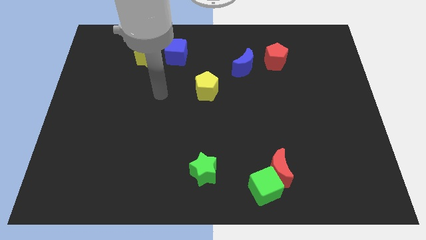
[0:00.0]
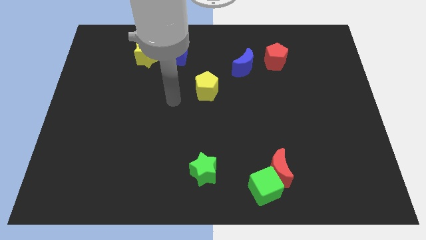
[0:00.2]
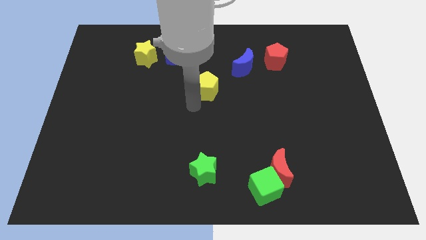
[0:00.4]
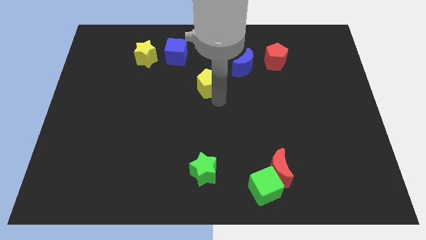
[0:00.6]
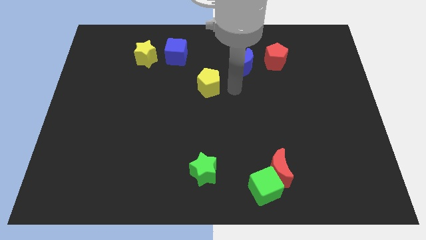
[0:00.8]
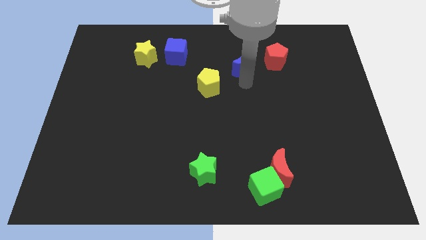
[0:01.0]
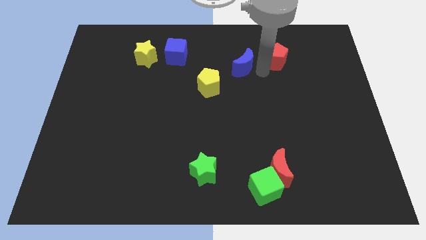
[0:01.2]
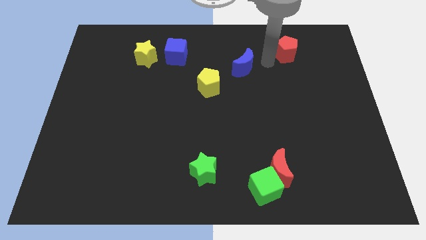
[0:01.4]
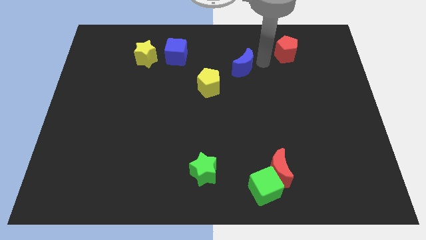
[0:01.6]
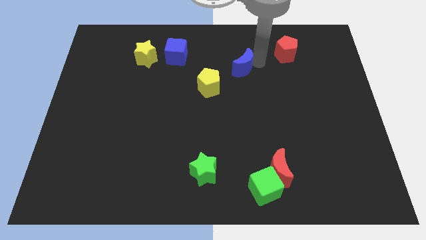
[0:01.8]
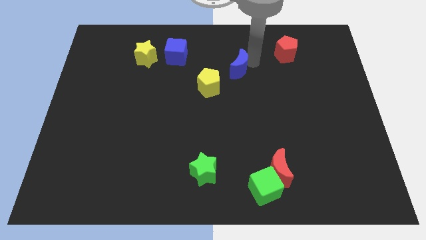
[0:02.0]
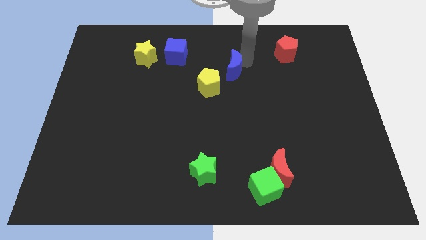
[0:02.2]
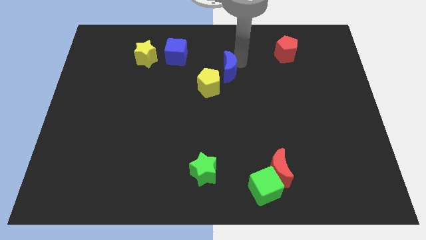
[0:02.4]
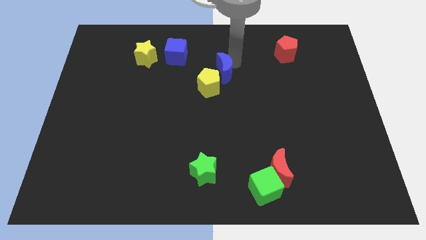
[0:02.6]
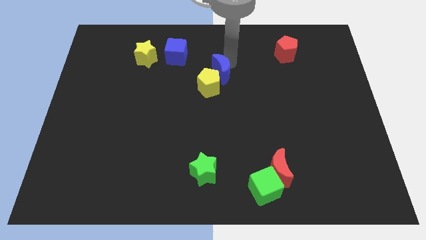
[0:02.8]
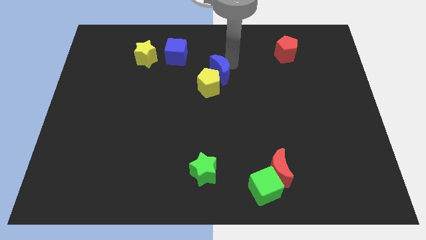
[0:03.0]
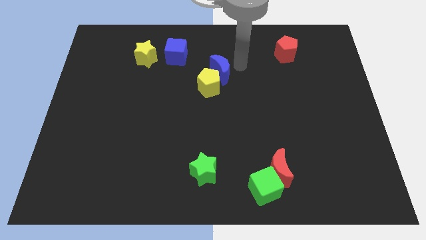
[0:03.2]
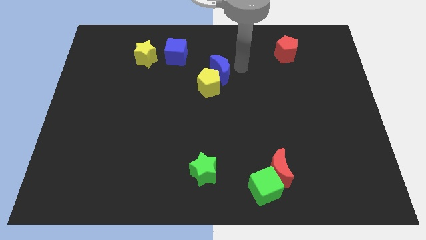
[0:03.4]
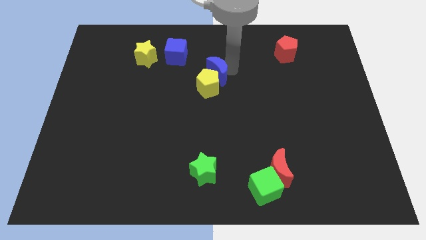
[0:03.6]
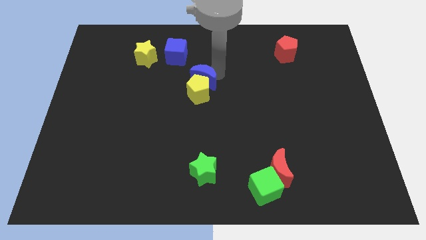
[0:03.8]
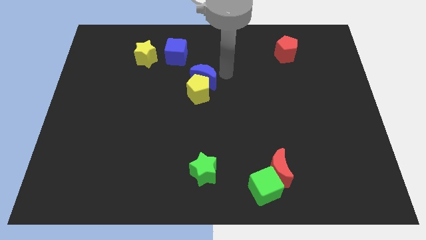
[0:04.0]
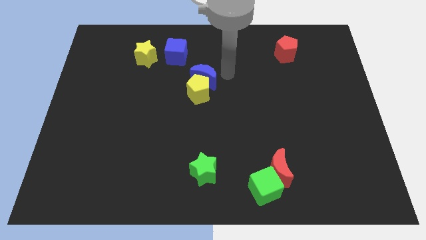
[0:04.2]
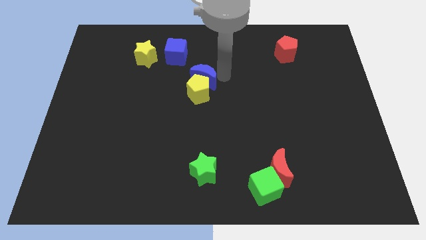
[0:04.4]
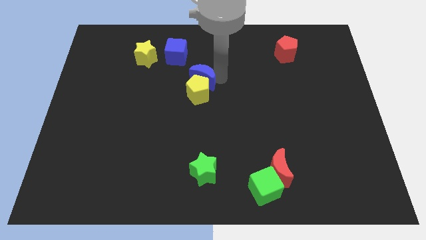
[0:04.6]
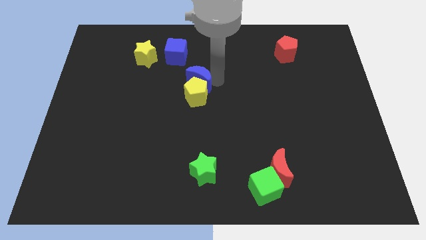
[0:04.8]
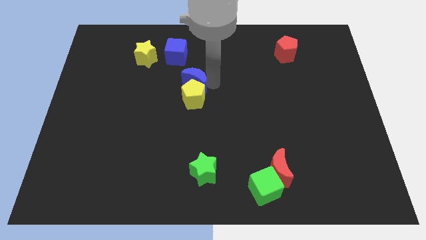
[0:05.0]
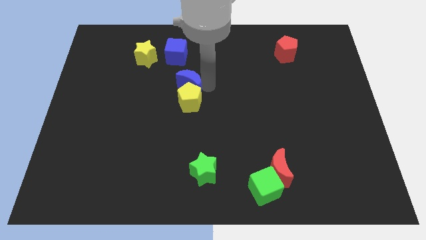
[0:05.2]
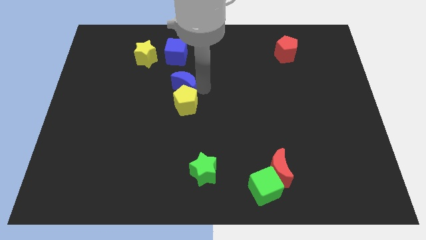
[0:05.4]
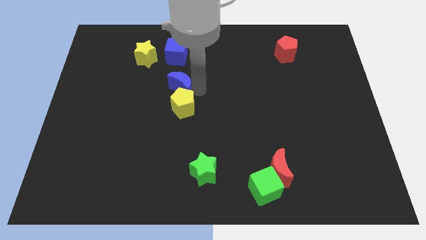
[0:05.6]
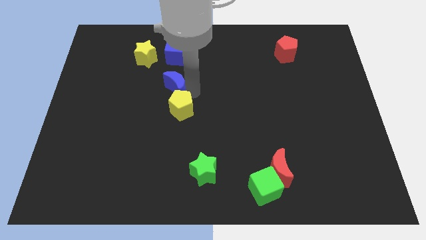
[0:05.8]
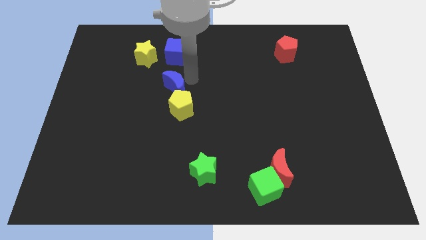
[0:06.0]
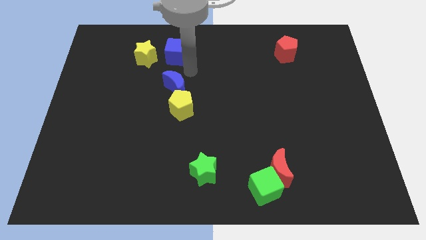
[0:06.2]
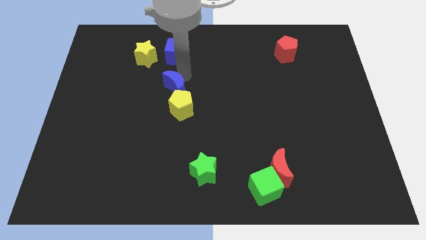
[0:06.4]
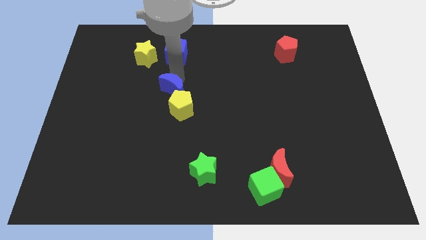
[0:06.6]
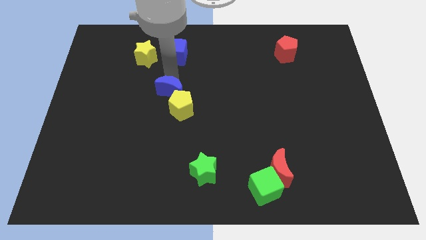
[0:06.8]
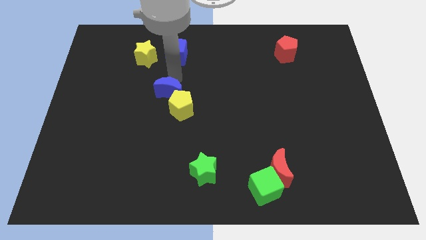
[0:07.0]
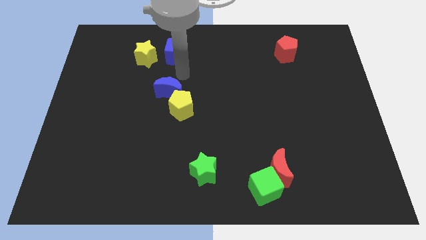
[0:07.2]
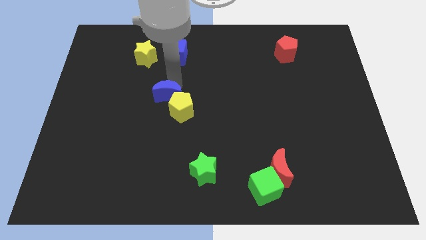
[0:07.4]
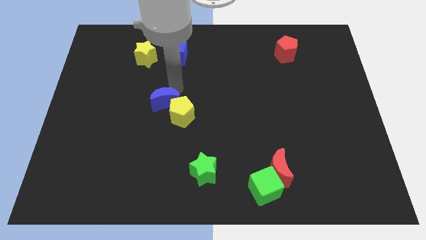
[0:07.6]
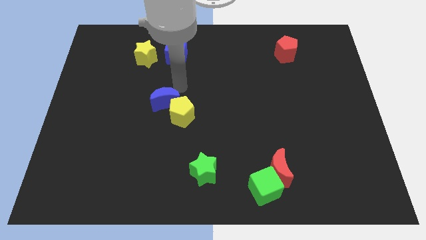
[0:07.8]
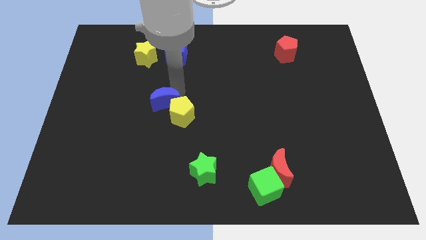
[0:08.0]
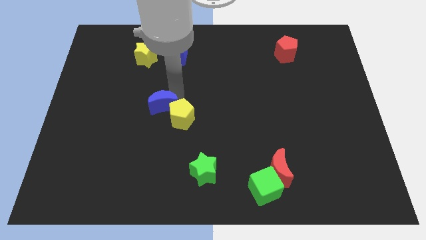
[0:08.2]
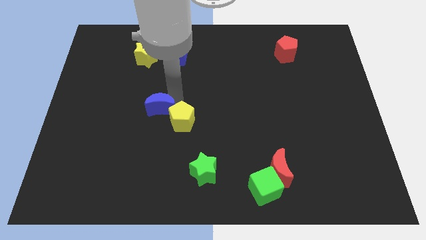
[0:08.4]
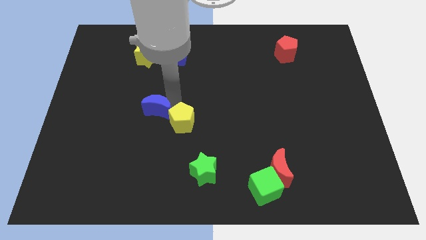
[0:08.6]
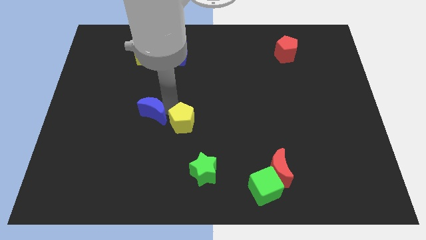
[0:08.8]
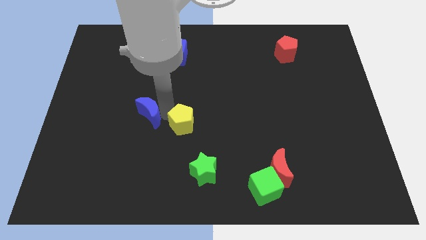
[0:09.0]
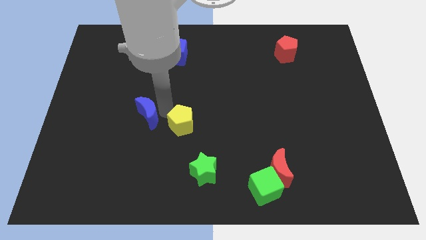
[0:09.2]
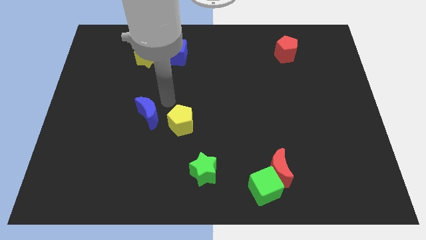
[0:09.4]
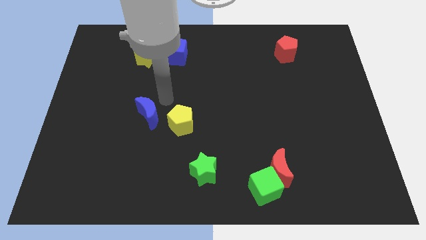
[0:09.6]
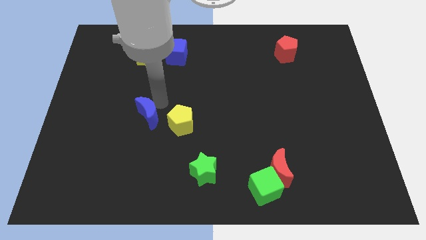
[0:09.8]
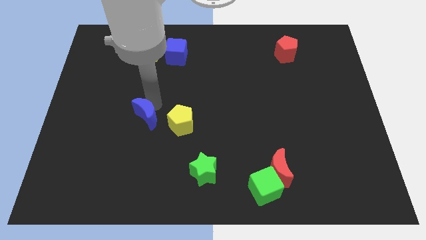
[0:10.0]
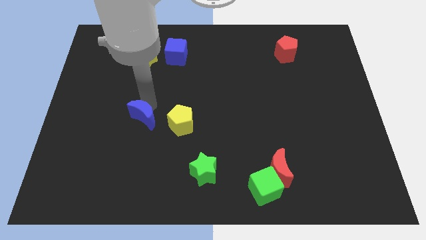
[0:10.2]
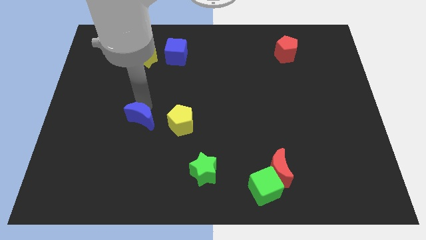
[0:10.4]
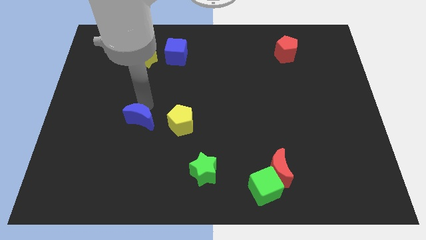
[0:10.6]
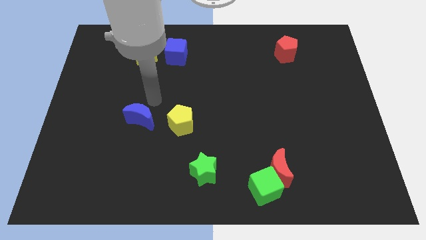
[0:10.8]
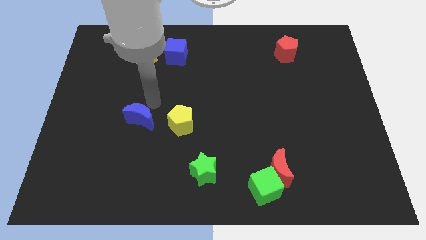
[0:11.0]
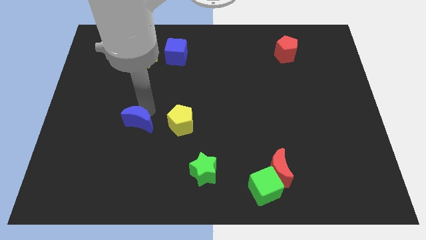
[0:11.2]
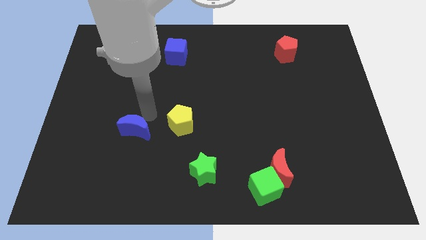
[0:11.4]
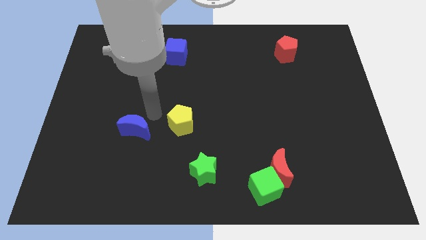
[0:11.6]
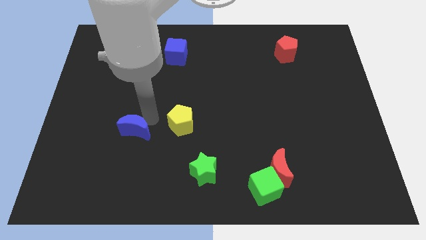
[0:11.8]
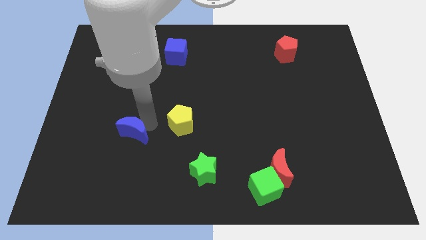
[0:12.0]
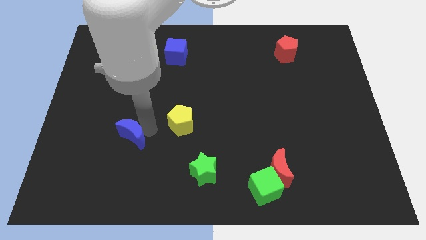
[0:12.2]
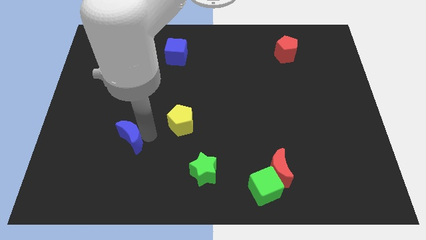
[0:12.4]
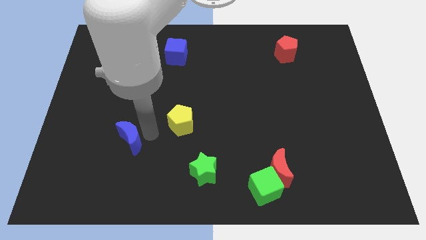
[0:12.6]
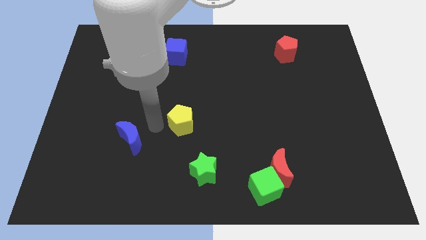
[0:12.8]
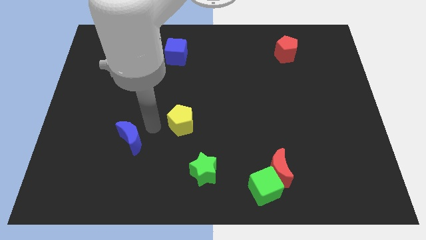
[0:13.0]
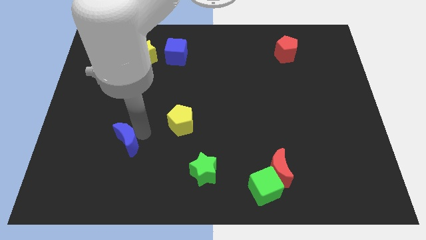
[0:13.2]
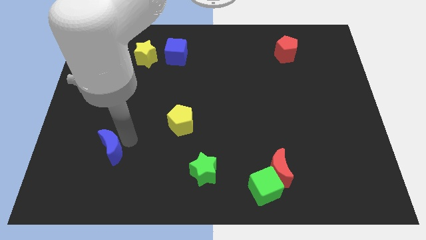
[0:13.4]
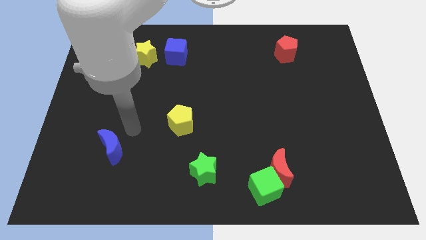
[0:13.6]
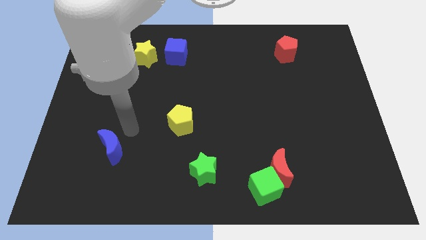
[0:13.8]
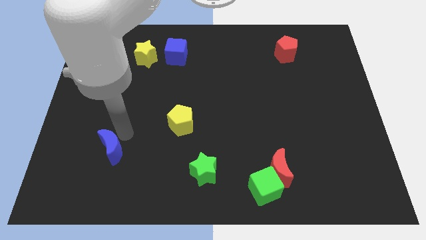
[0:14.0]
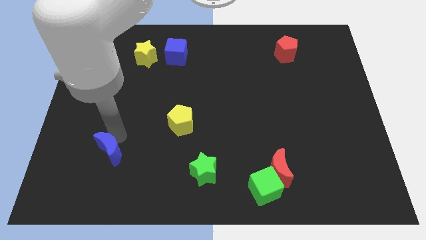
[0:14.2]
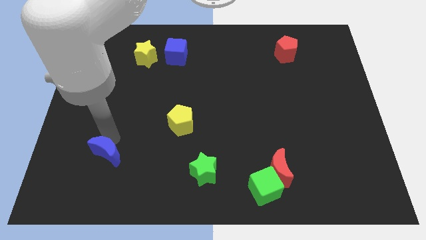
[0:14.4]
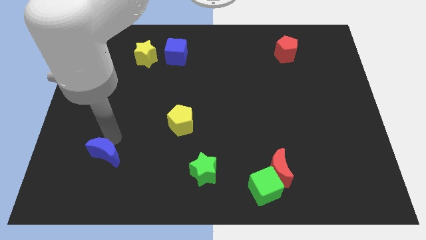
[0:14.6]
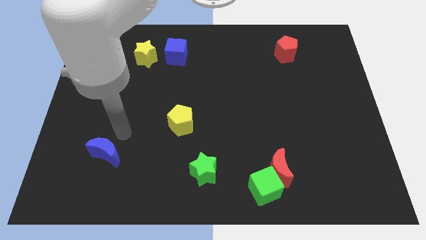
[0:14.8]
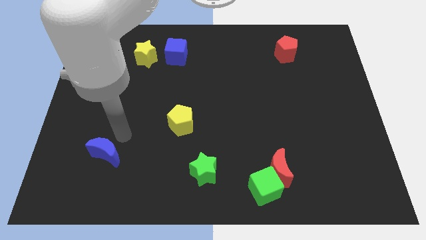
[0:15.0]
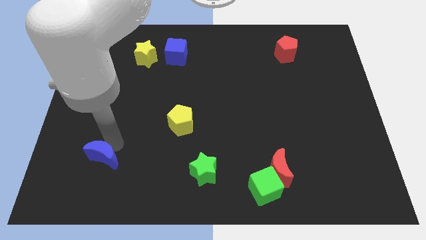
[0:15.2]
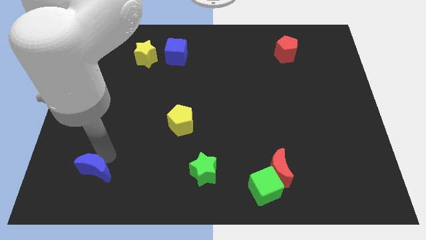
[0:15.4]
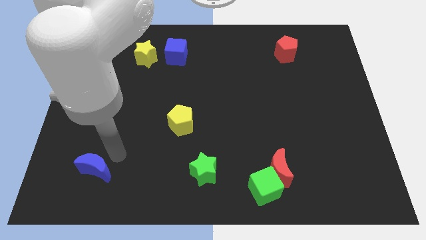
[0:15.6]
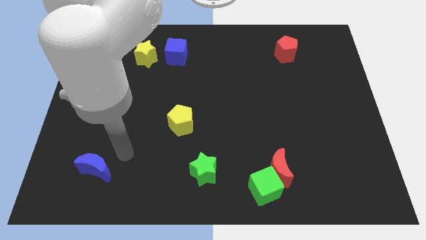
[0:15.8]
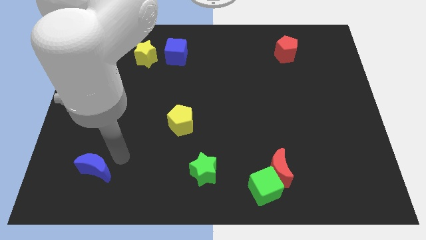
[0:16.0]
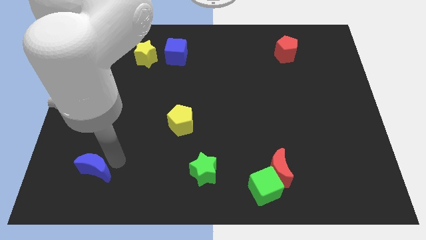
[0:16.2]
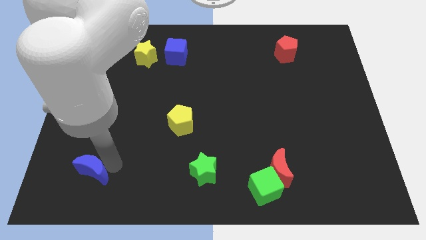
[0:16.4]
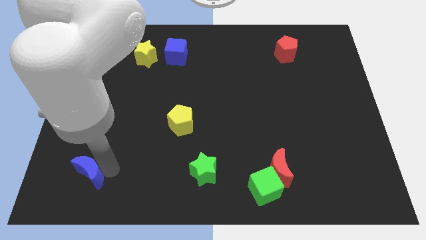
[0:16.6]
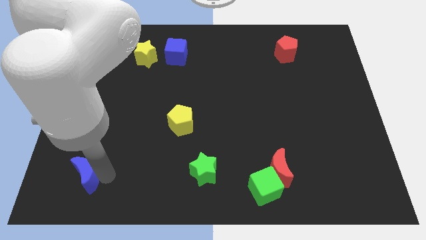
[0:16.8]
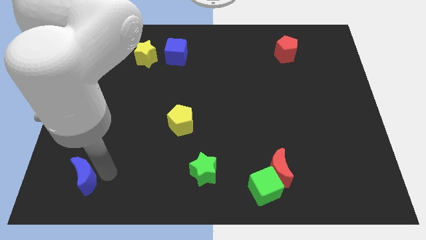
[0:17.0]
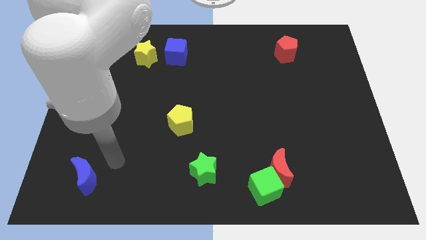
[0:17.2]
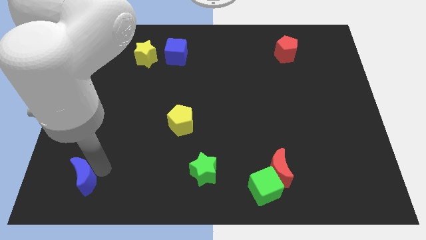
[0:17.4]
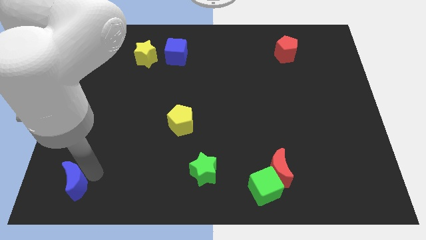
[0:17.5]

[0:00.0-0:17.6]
put the blue moon to the bottom left of the board
